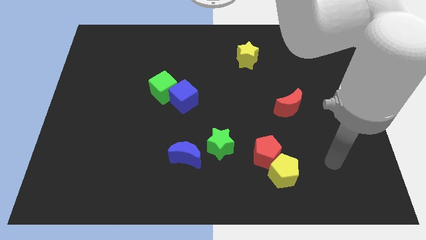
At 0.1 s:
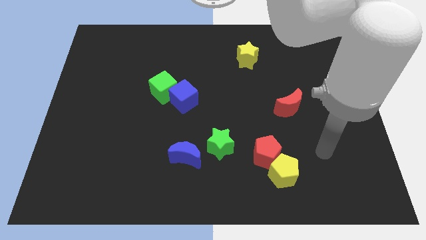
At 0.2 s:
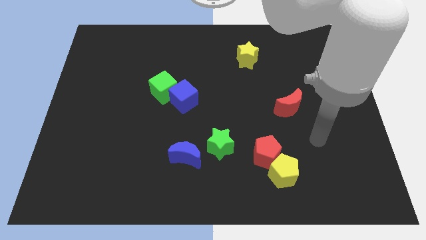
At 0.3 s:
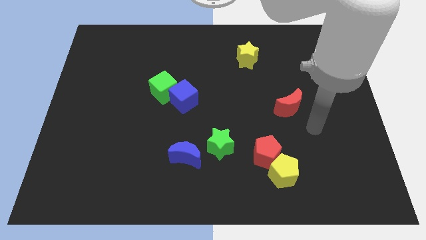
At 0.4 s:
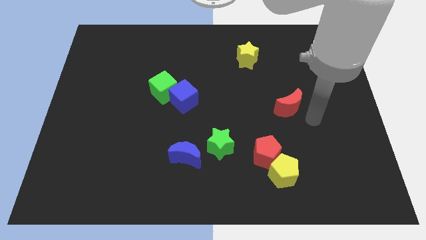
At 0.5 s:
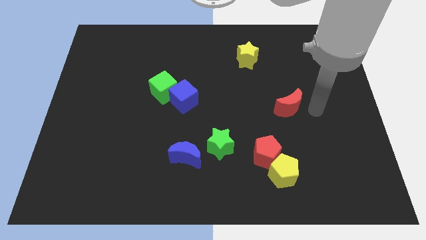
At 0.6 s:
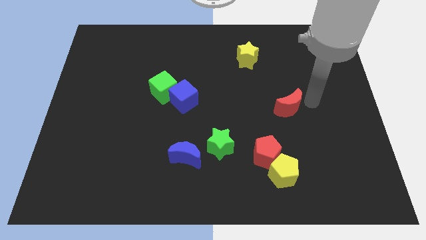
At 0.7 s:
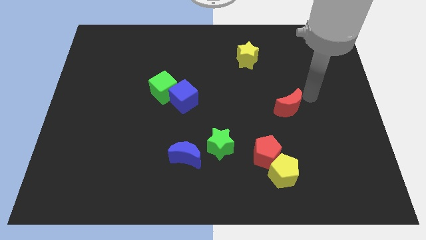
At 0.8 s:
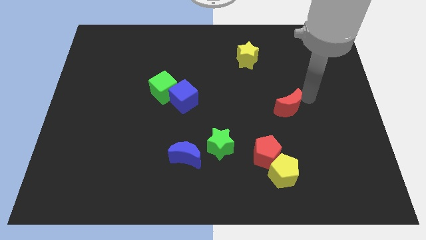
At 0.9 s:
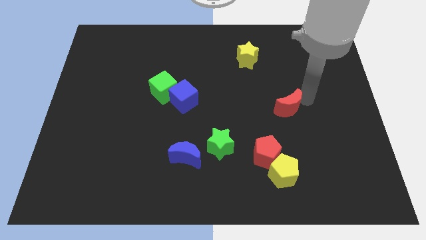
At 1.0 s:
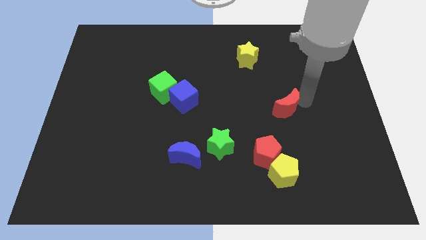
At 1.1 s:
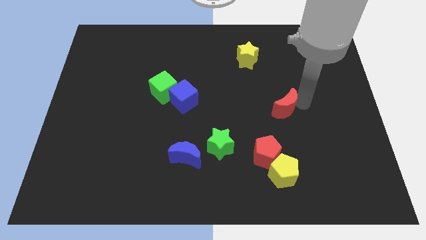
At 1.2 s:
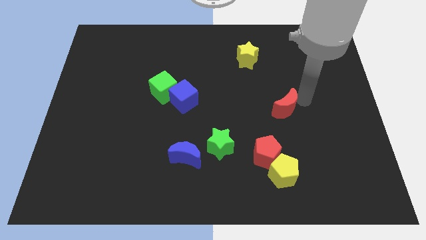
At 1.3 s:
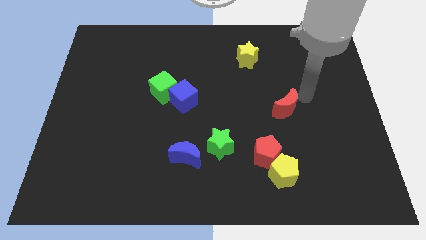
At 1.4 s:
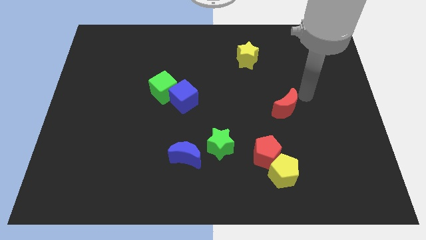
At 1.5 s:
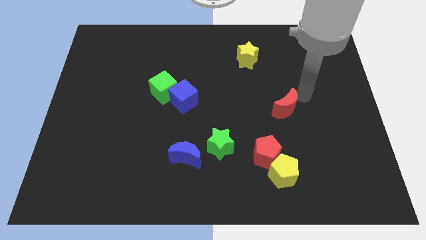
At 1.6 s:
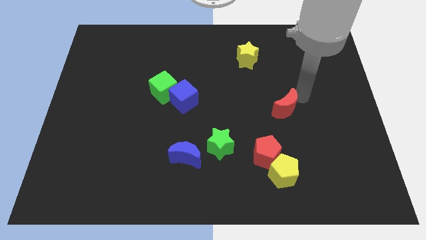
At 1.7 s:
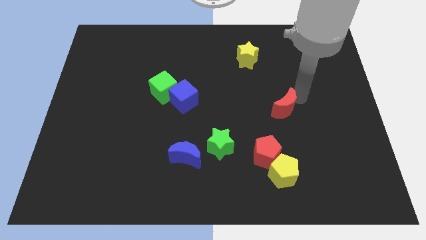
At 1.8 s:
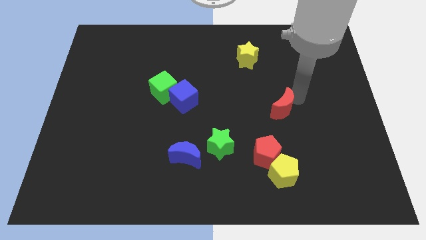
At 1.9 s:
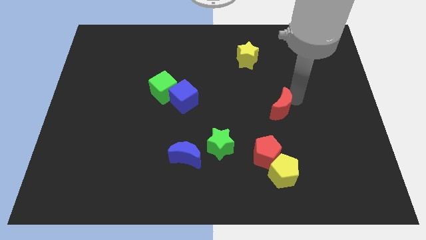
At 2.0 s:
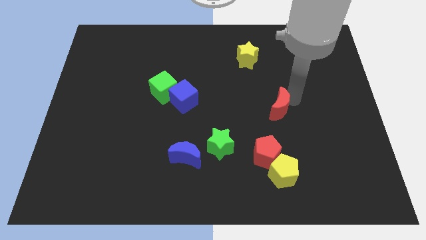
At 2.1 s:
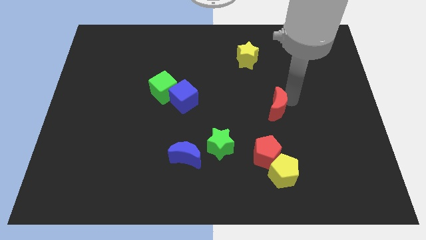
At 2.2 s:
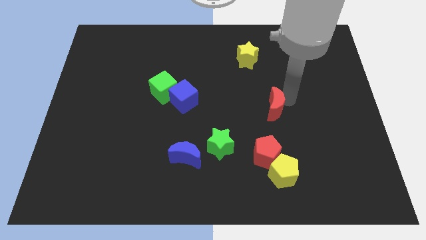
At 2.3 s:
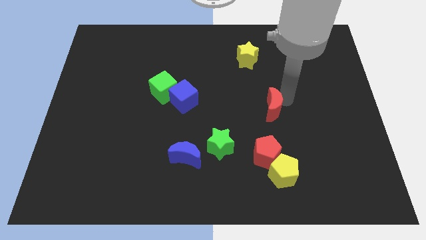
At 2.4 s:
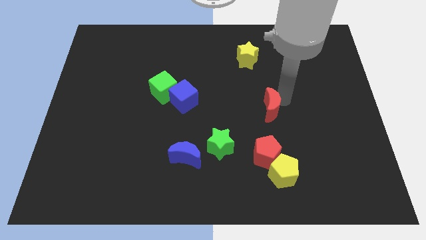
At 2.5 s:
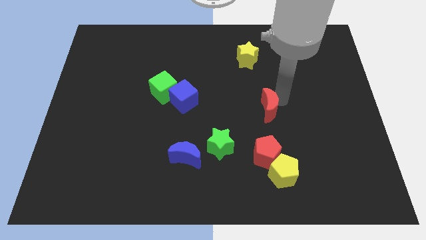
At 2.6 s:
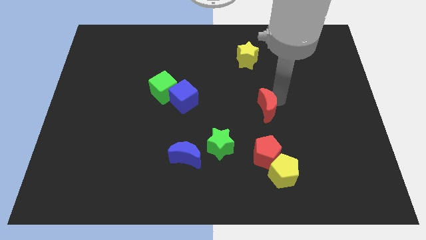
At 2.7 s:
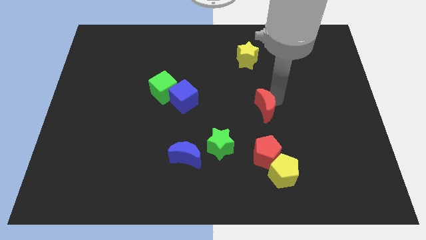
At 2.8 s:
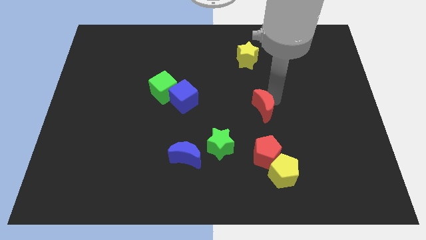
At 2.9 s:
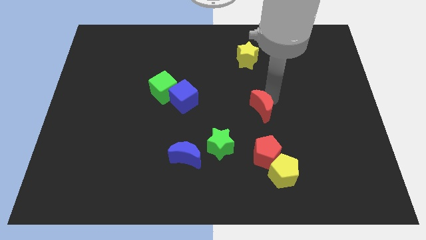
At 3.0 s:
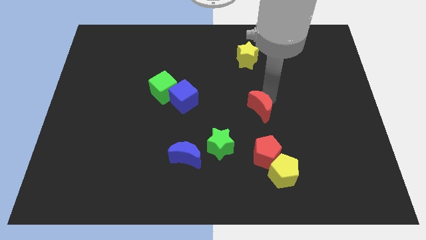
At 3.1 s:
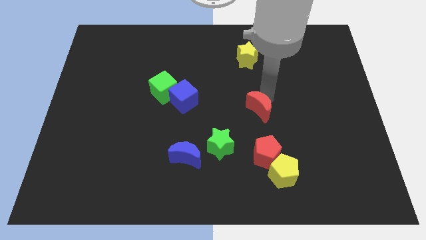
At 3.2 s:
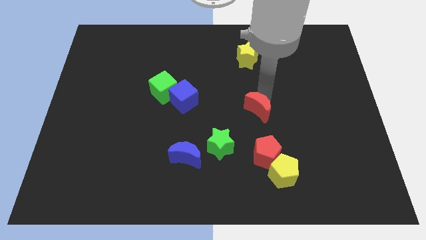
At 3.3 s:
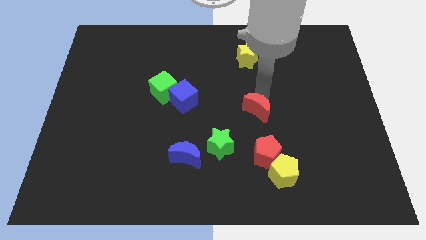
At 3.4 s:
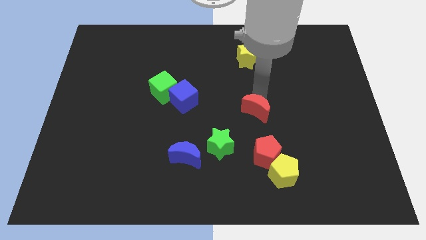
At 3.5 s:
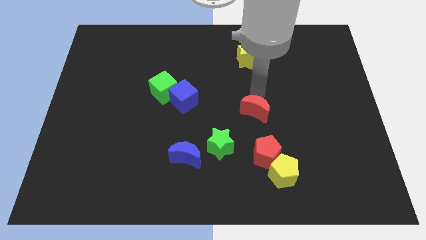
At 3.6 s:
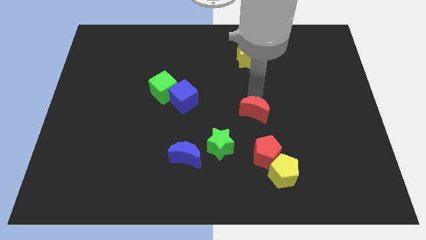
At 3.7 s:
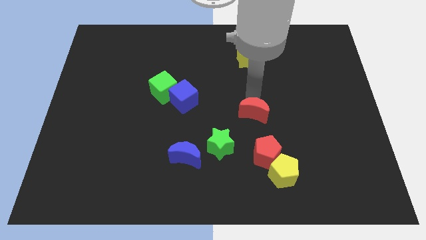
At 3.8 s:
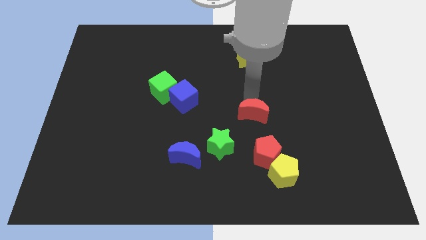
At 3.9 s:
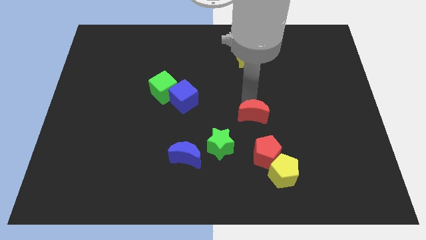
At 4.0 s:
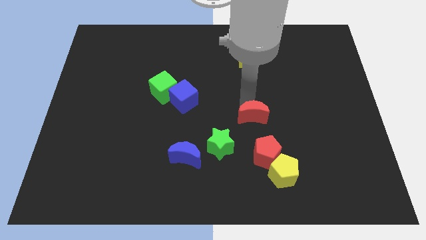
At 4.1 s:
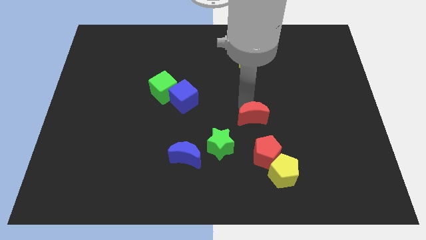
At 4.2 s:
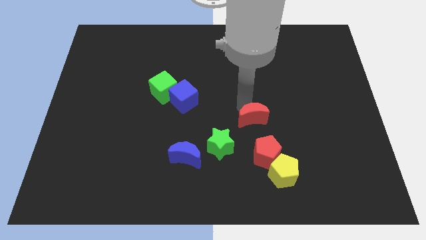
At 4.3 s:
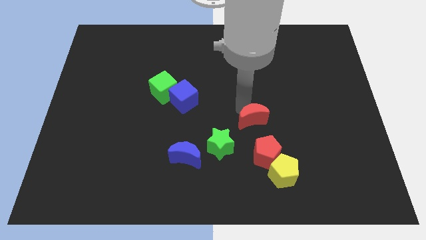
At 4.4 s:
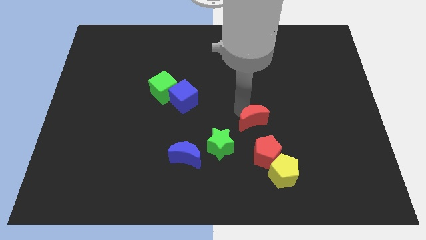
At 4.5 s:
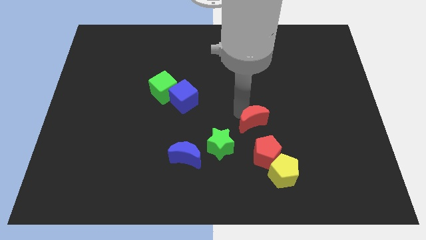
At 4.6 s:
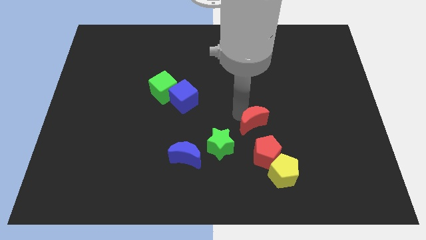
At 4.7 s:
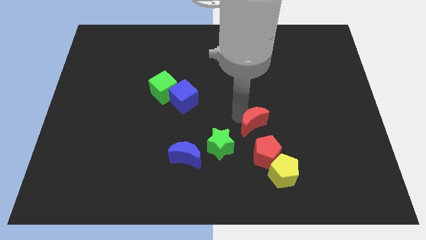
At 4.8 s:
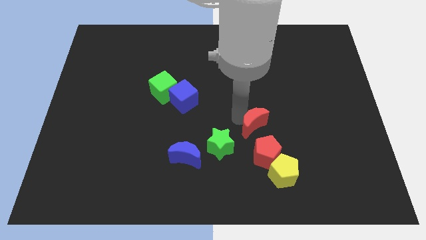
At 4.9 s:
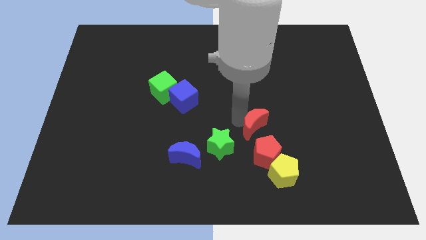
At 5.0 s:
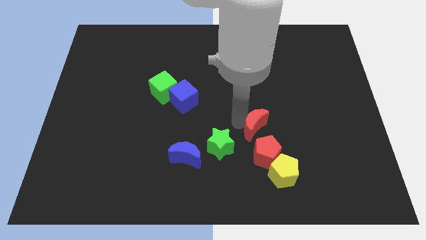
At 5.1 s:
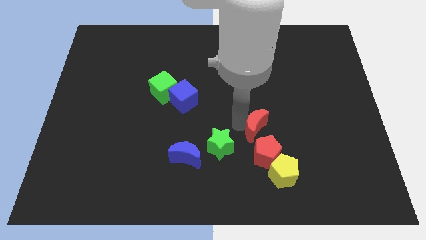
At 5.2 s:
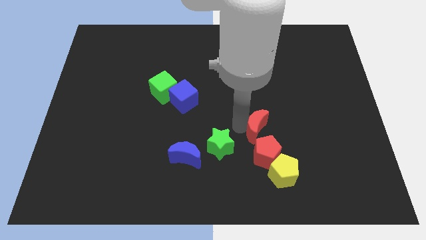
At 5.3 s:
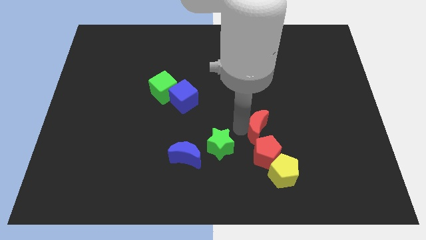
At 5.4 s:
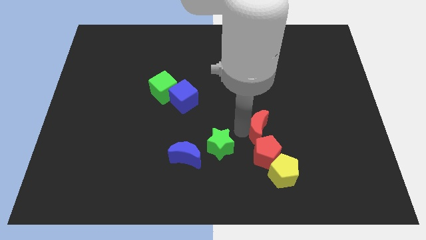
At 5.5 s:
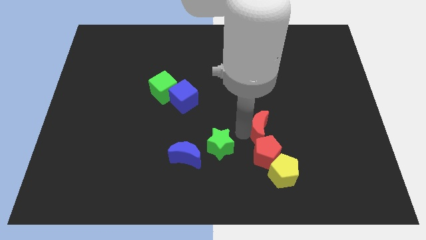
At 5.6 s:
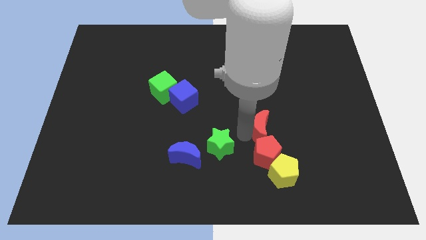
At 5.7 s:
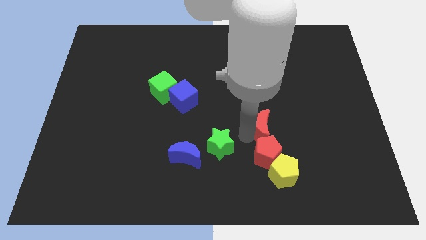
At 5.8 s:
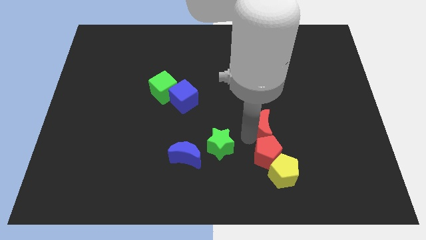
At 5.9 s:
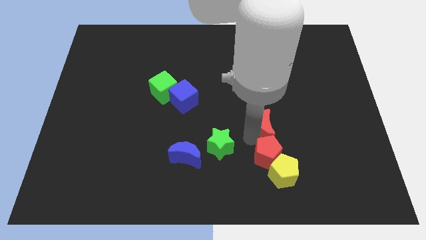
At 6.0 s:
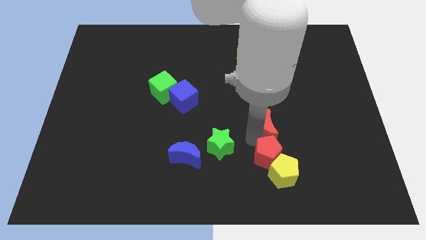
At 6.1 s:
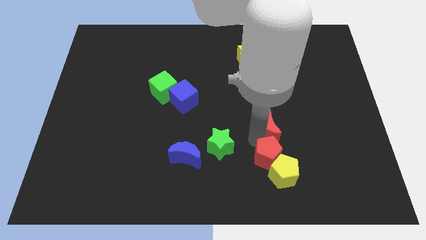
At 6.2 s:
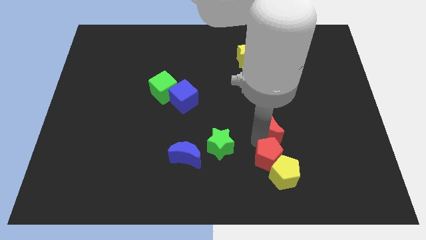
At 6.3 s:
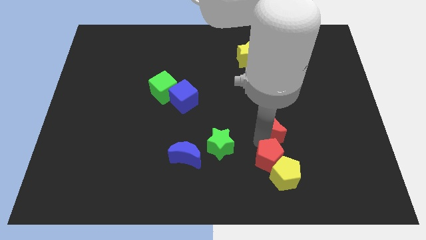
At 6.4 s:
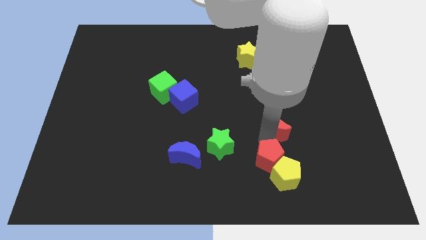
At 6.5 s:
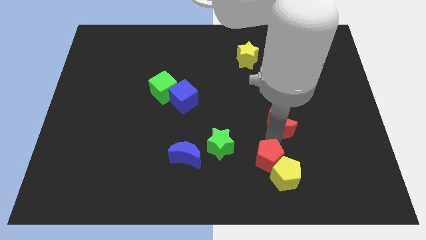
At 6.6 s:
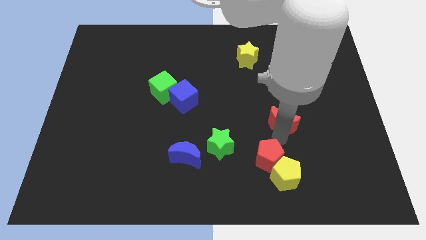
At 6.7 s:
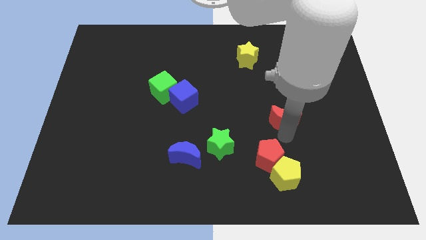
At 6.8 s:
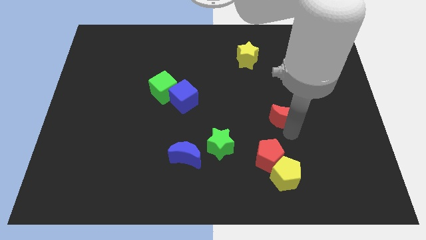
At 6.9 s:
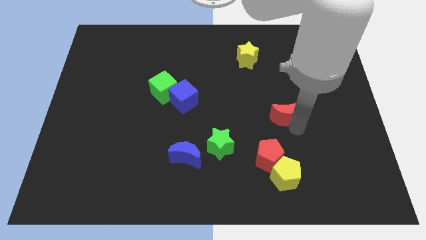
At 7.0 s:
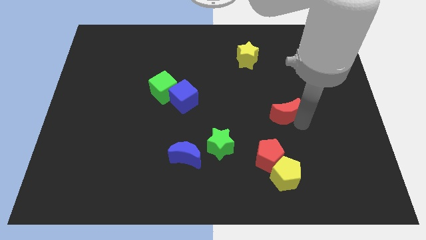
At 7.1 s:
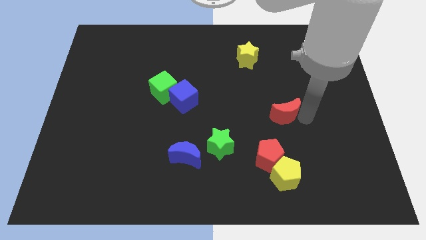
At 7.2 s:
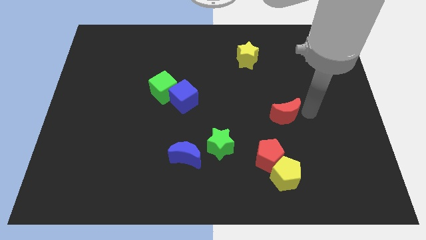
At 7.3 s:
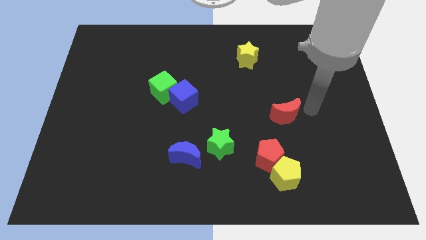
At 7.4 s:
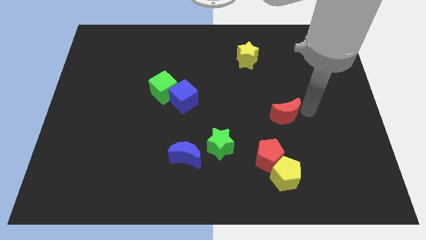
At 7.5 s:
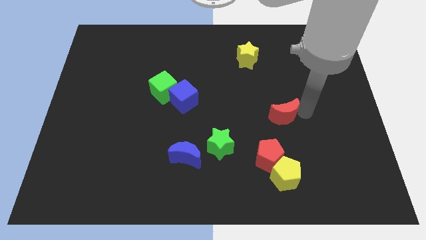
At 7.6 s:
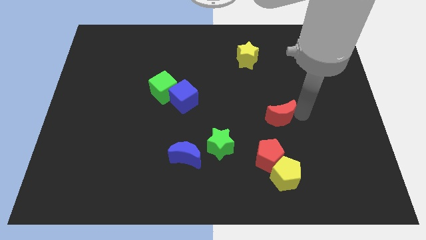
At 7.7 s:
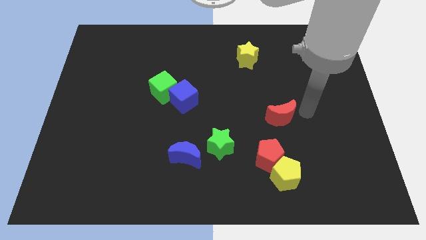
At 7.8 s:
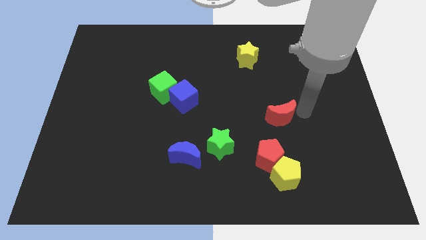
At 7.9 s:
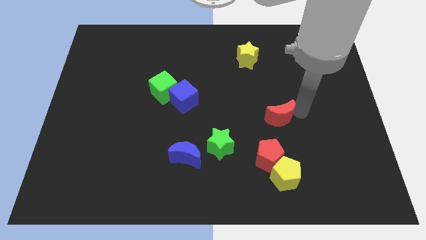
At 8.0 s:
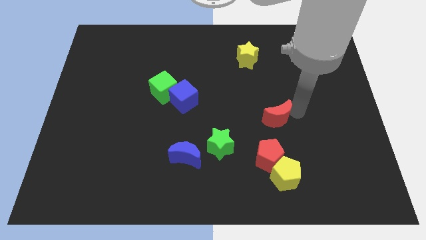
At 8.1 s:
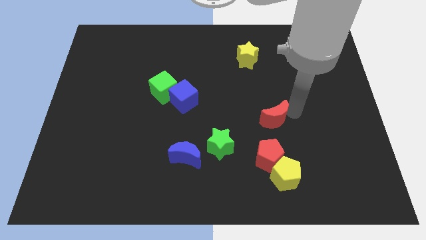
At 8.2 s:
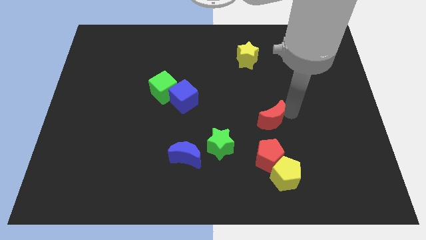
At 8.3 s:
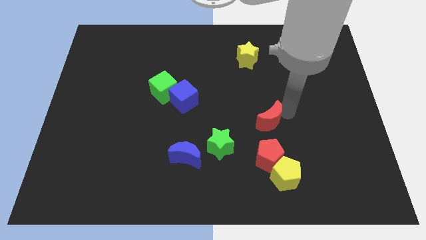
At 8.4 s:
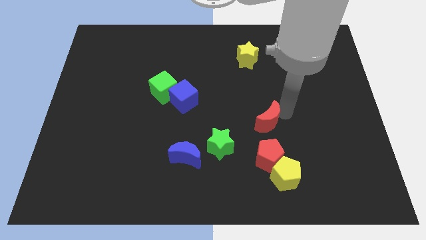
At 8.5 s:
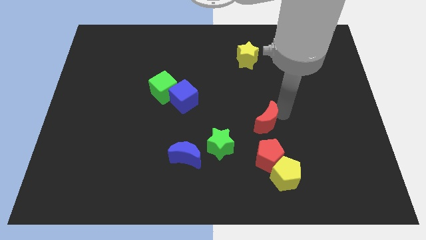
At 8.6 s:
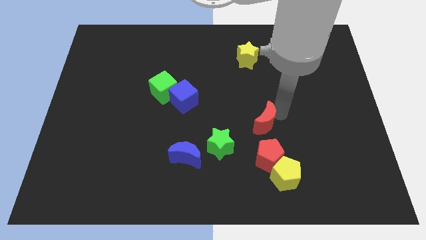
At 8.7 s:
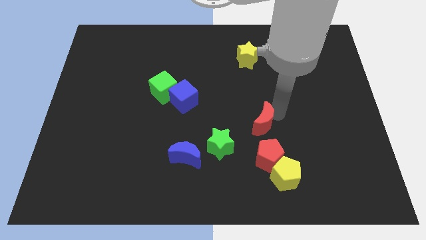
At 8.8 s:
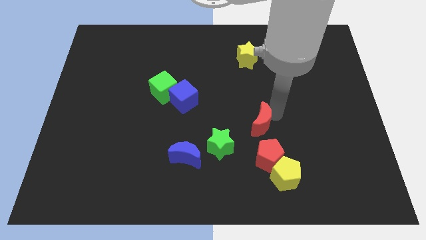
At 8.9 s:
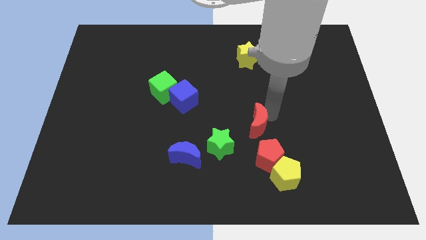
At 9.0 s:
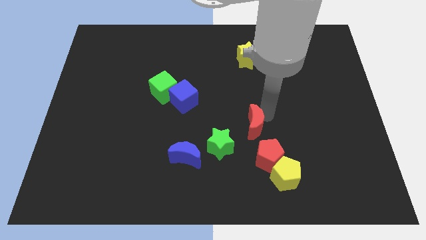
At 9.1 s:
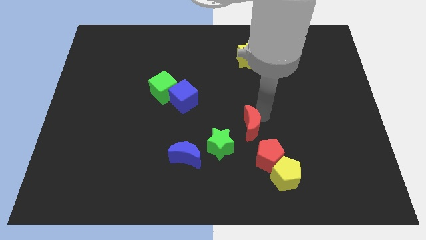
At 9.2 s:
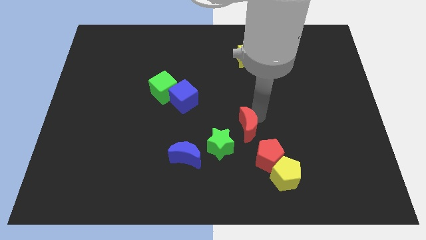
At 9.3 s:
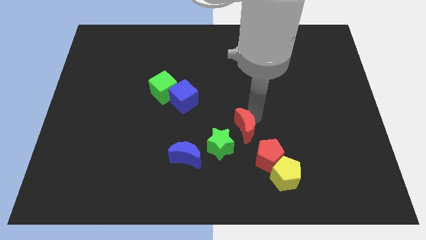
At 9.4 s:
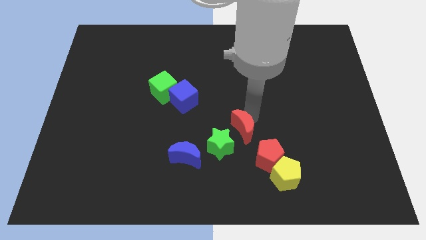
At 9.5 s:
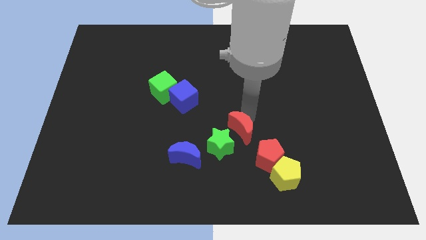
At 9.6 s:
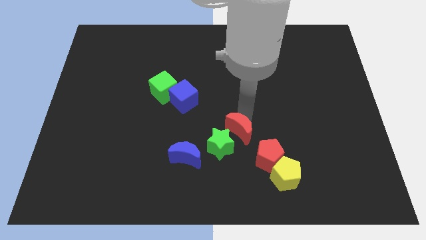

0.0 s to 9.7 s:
move the red moon towards the green star
